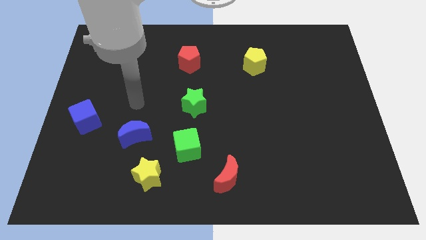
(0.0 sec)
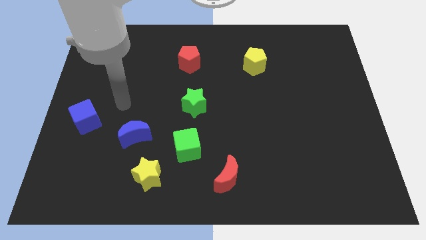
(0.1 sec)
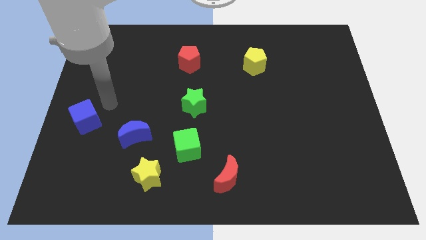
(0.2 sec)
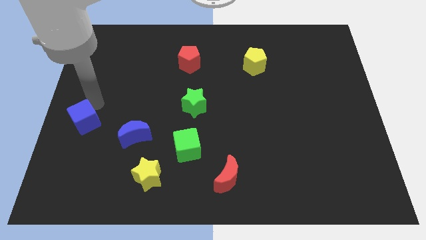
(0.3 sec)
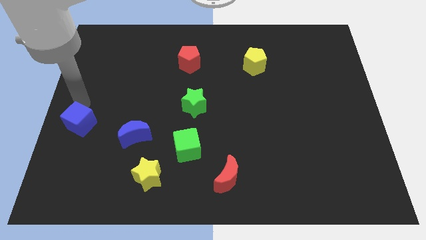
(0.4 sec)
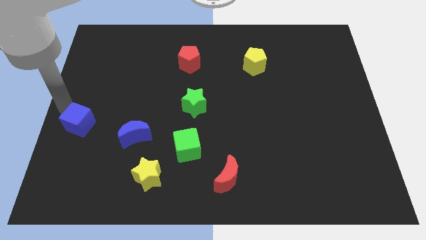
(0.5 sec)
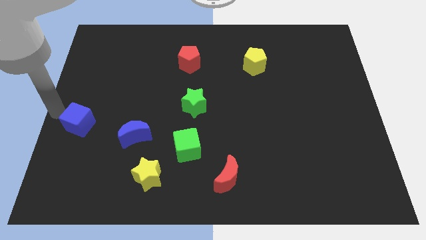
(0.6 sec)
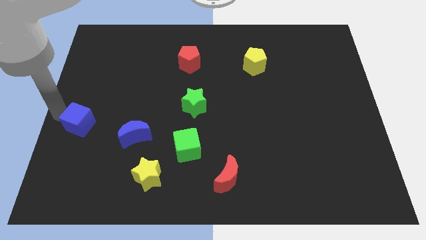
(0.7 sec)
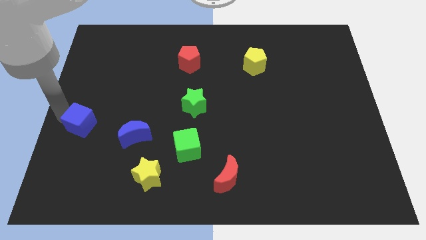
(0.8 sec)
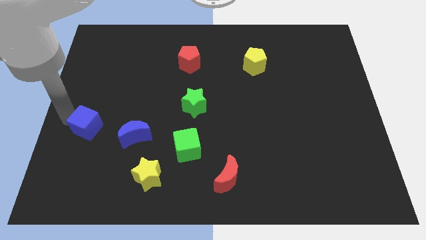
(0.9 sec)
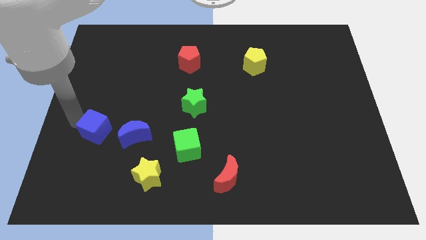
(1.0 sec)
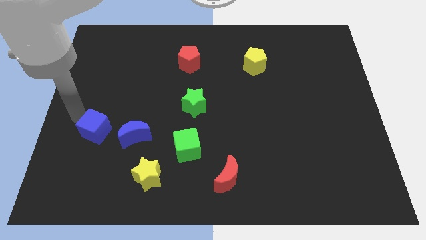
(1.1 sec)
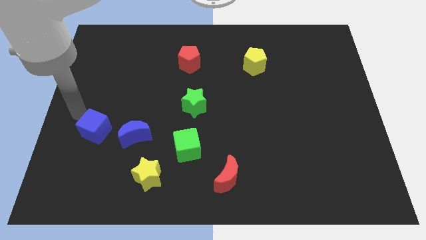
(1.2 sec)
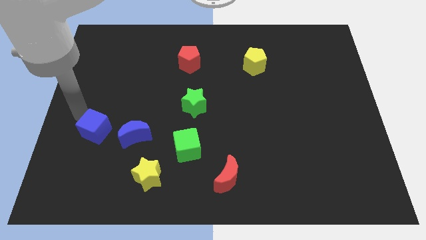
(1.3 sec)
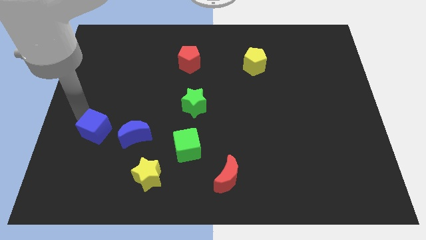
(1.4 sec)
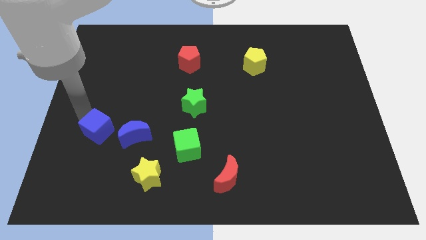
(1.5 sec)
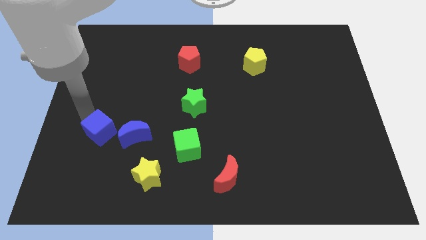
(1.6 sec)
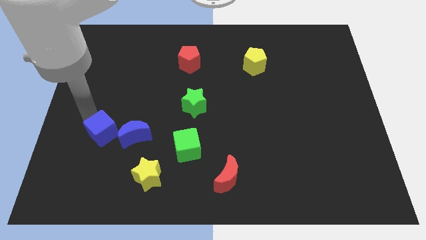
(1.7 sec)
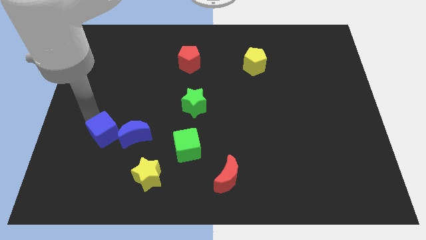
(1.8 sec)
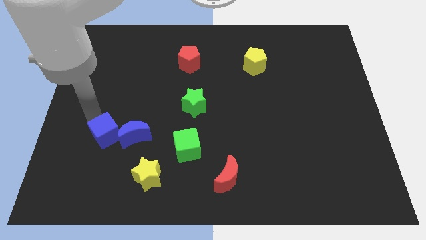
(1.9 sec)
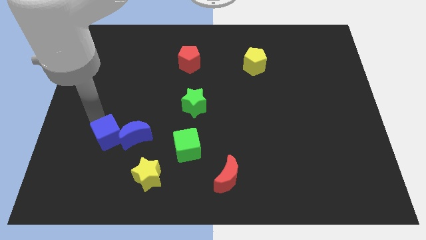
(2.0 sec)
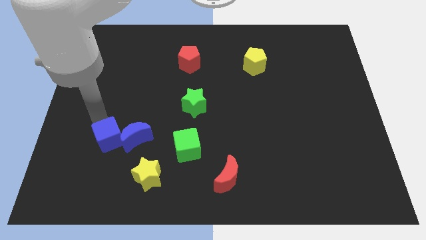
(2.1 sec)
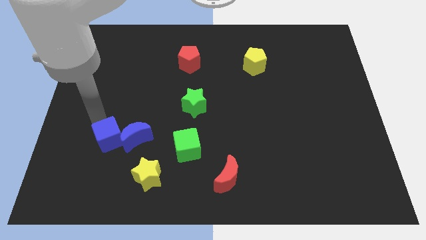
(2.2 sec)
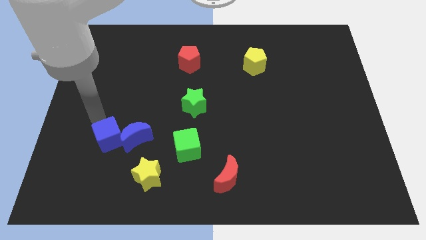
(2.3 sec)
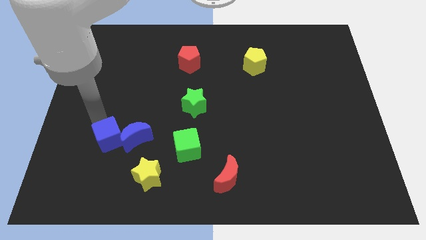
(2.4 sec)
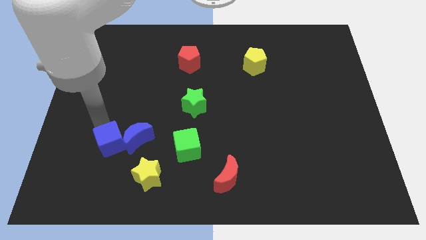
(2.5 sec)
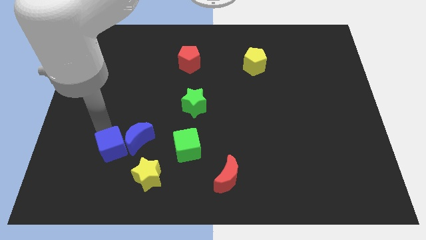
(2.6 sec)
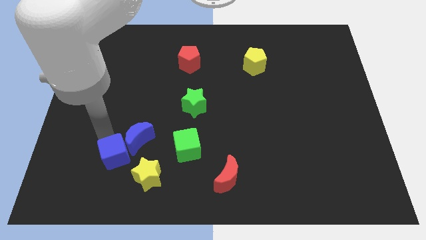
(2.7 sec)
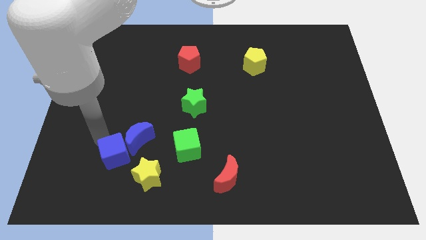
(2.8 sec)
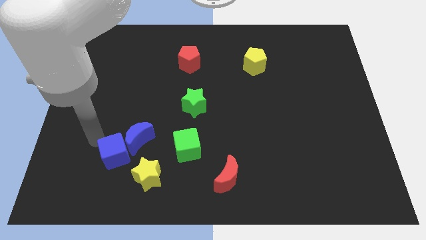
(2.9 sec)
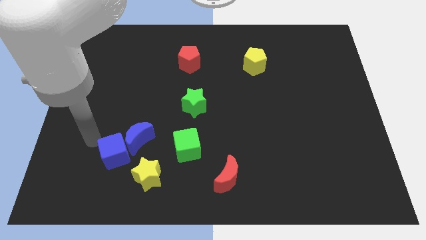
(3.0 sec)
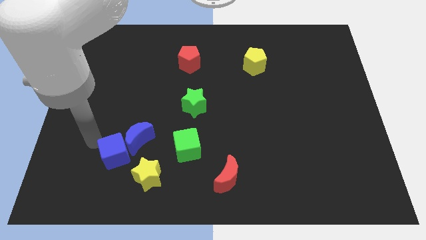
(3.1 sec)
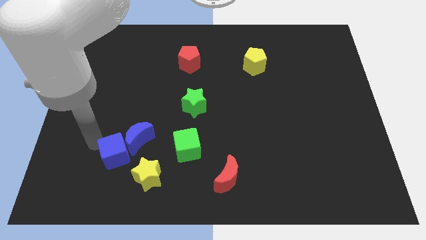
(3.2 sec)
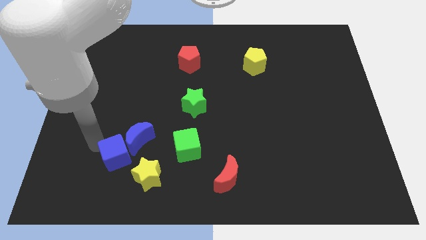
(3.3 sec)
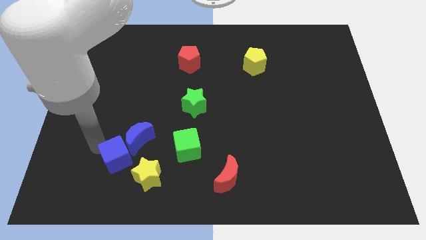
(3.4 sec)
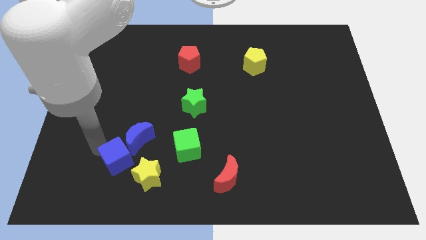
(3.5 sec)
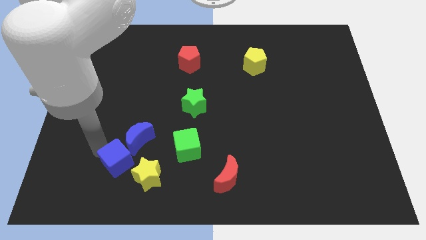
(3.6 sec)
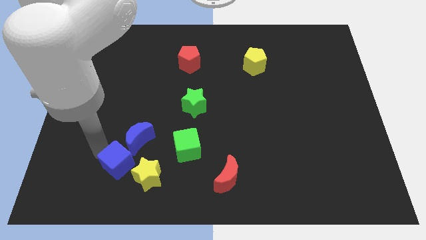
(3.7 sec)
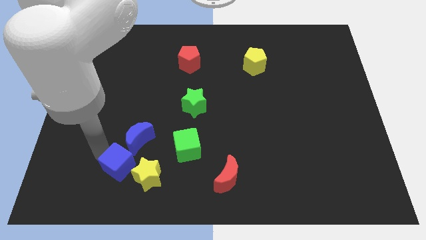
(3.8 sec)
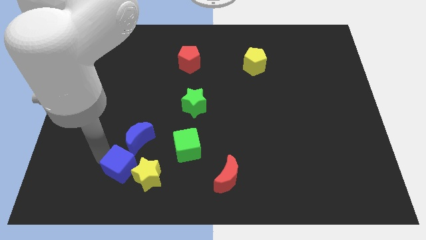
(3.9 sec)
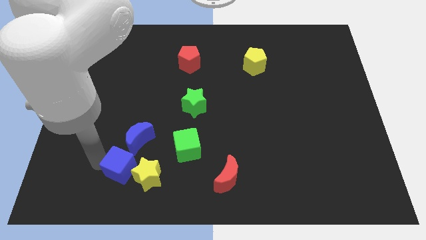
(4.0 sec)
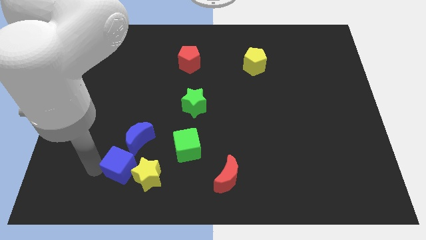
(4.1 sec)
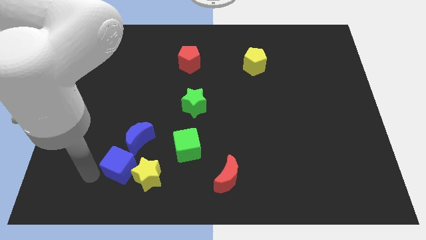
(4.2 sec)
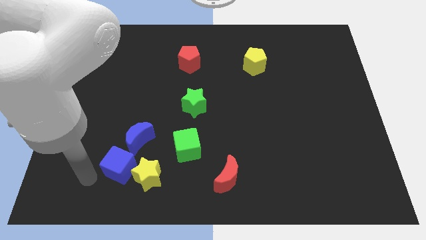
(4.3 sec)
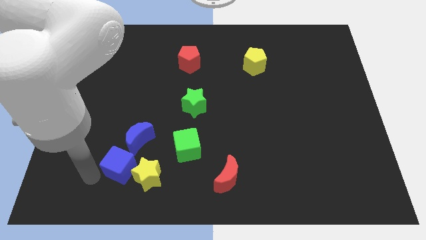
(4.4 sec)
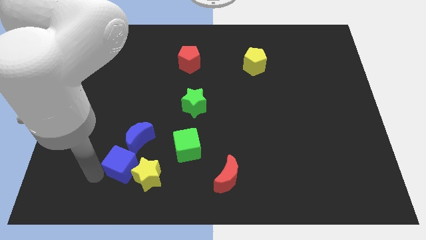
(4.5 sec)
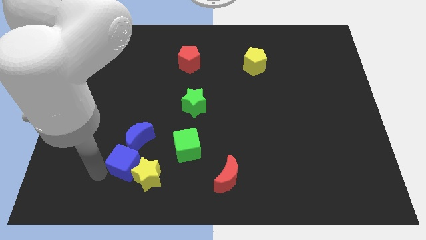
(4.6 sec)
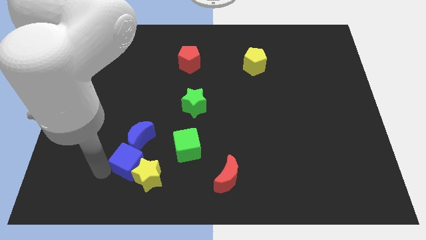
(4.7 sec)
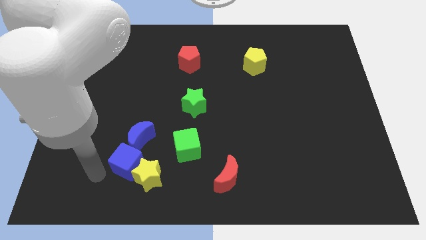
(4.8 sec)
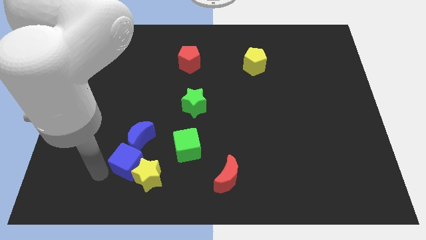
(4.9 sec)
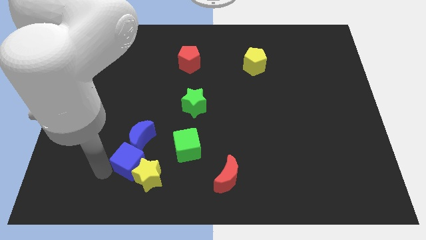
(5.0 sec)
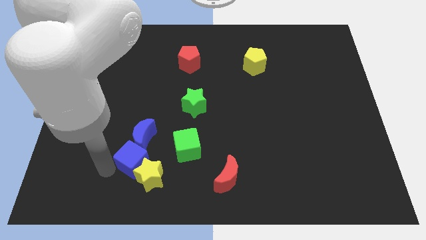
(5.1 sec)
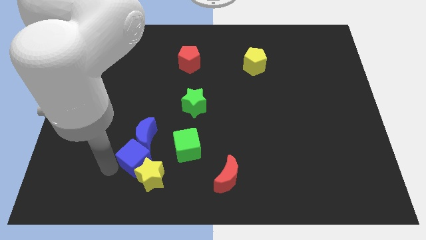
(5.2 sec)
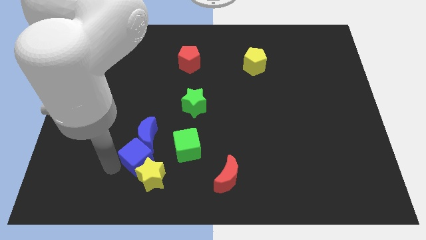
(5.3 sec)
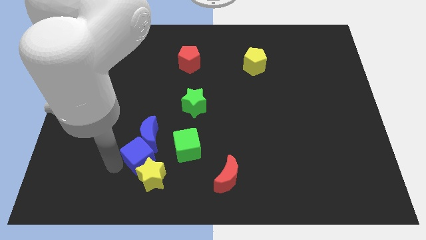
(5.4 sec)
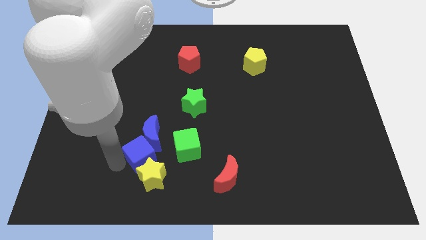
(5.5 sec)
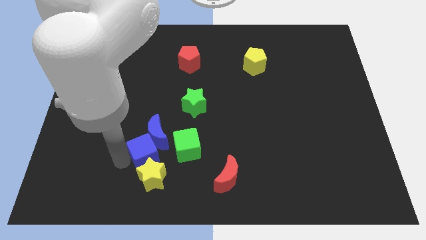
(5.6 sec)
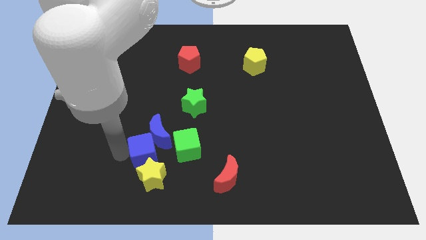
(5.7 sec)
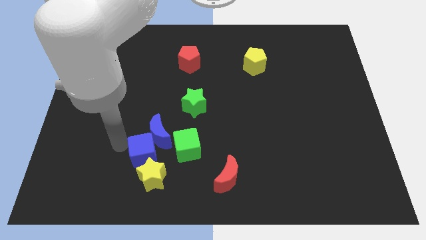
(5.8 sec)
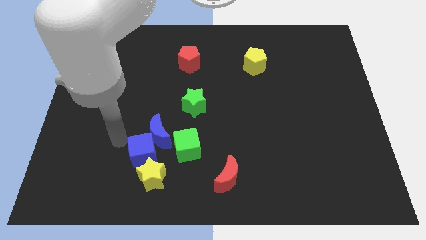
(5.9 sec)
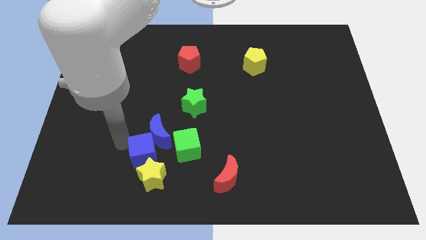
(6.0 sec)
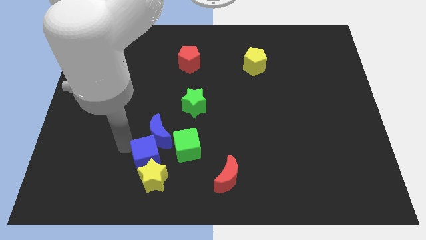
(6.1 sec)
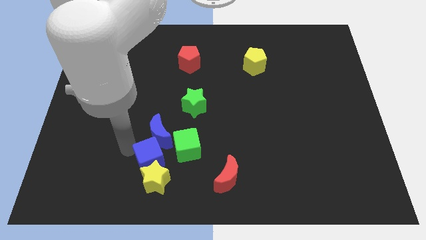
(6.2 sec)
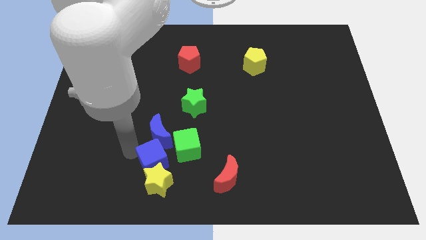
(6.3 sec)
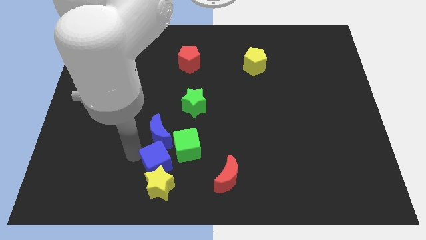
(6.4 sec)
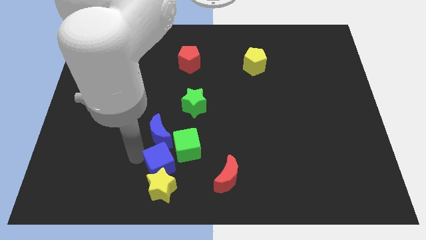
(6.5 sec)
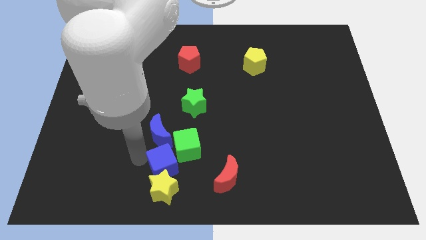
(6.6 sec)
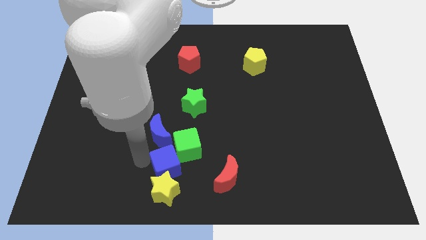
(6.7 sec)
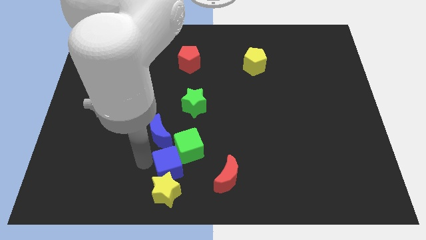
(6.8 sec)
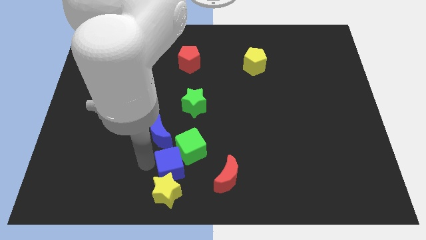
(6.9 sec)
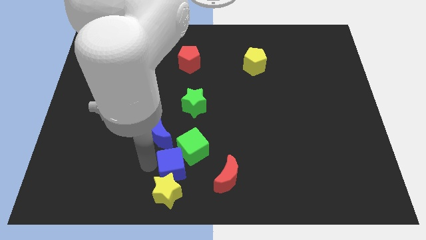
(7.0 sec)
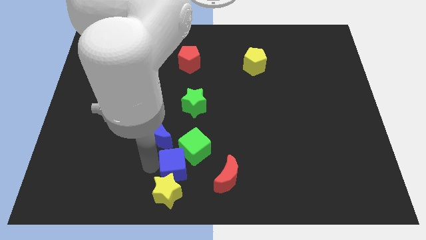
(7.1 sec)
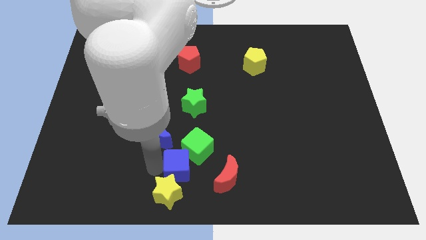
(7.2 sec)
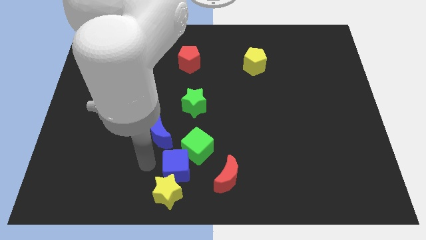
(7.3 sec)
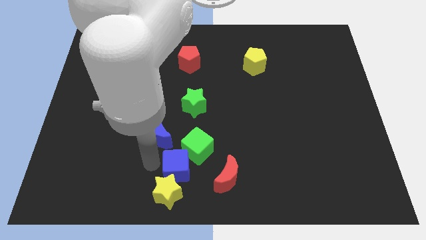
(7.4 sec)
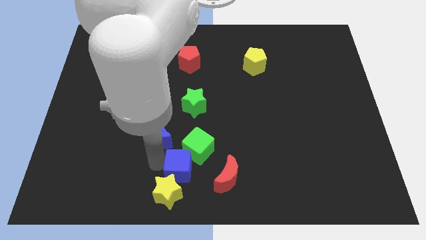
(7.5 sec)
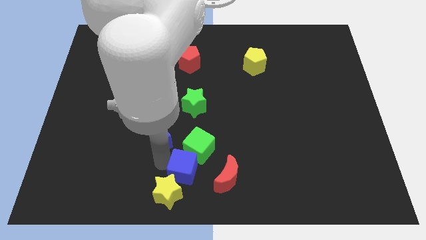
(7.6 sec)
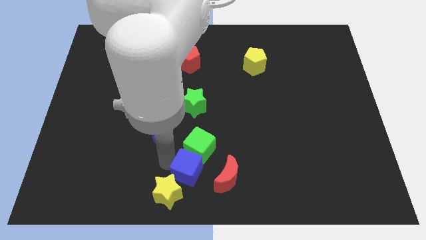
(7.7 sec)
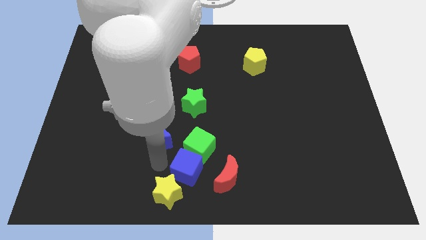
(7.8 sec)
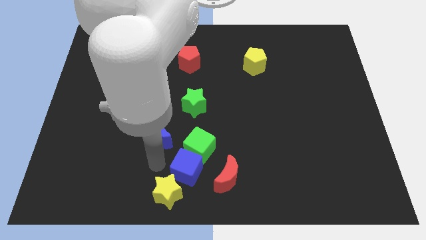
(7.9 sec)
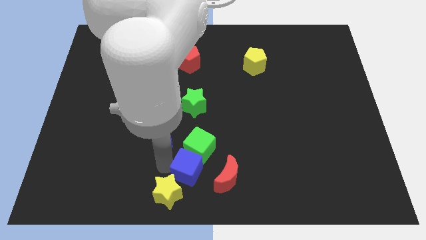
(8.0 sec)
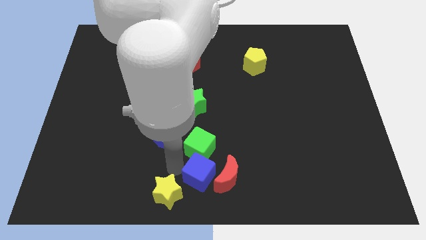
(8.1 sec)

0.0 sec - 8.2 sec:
put the blue cube to the red moon
